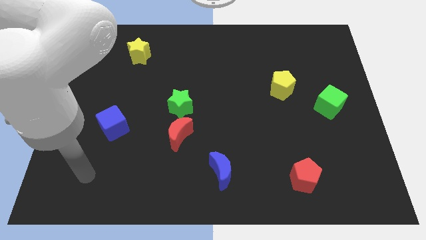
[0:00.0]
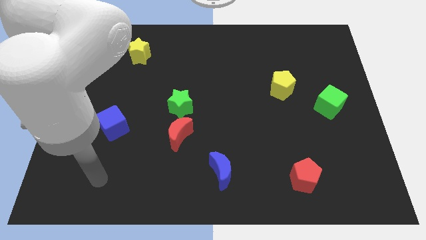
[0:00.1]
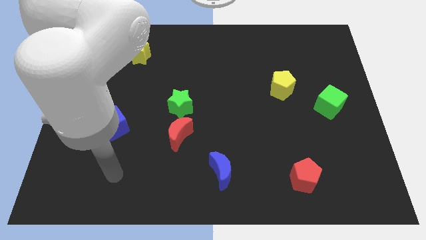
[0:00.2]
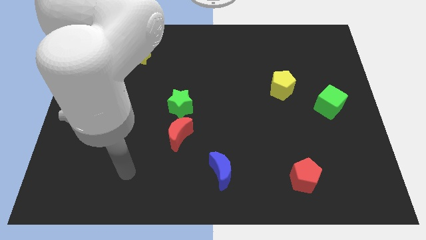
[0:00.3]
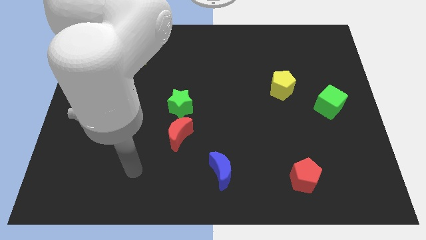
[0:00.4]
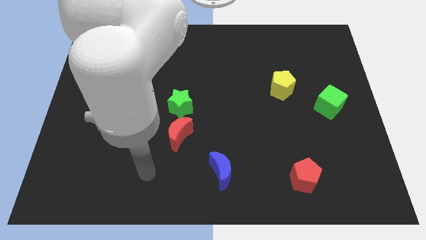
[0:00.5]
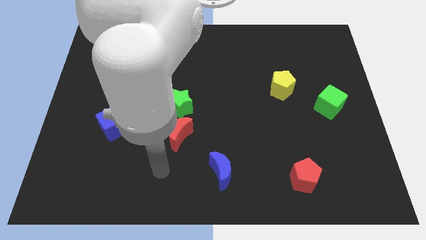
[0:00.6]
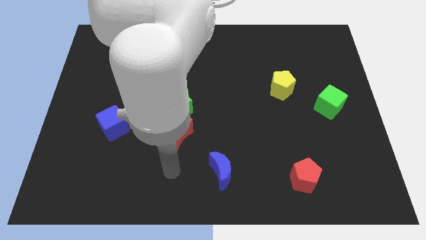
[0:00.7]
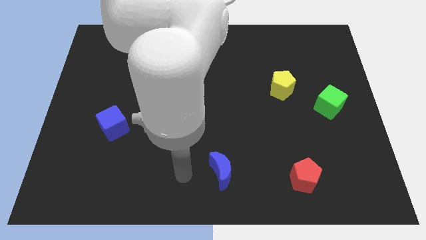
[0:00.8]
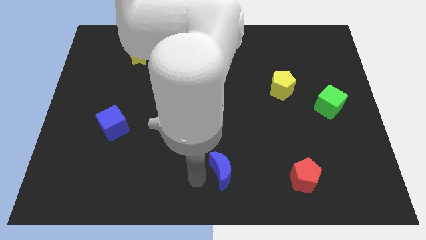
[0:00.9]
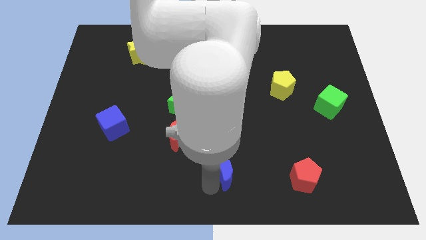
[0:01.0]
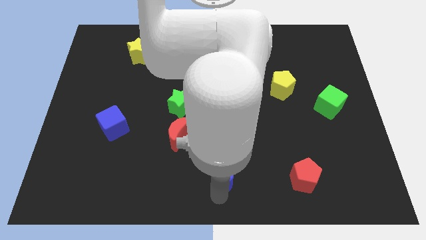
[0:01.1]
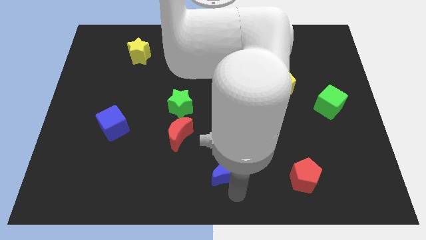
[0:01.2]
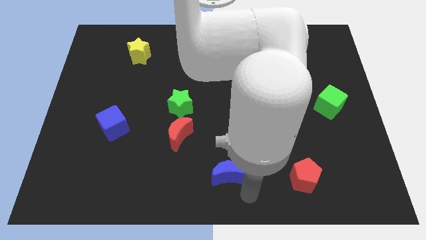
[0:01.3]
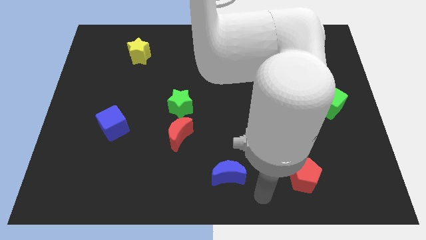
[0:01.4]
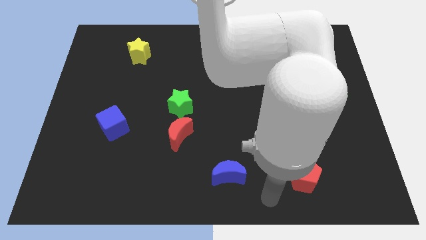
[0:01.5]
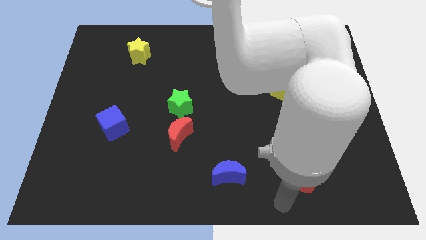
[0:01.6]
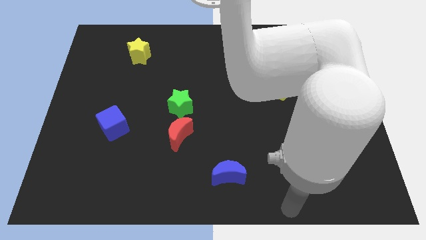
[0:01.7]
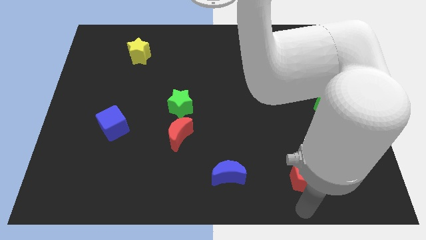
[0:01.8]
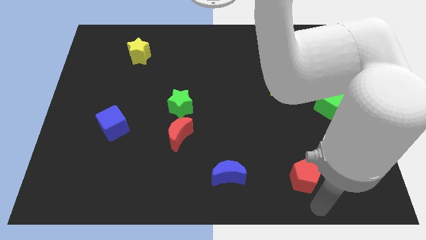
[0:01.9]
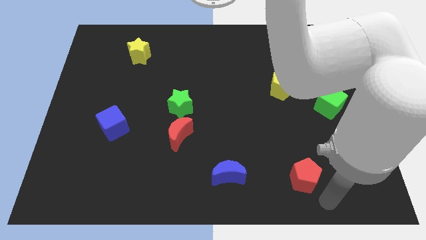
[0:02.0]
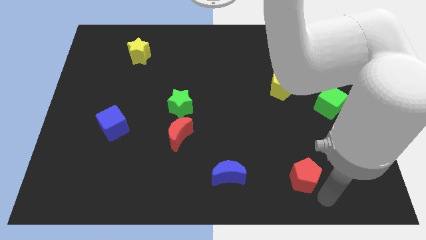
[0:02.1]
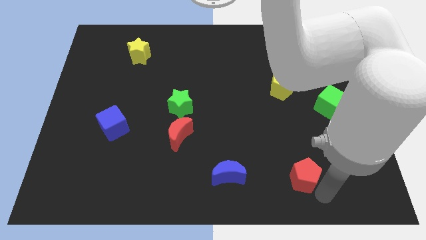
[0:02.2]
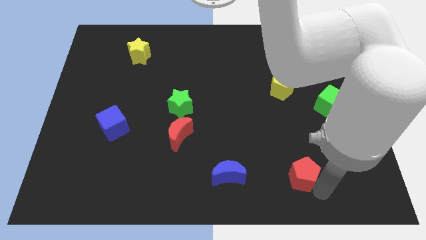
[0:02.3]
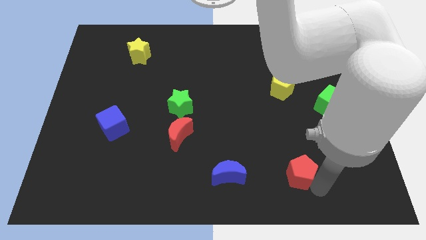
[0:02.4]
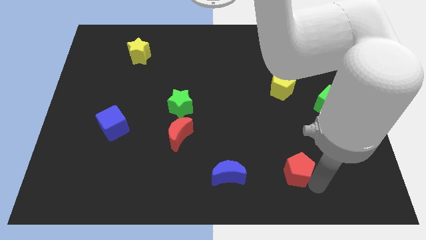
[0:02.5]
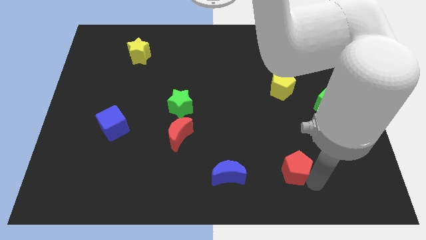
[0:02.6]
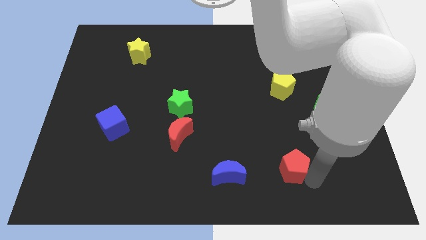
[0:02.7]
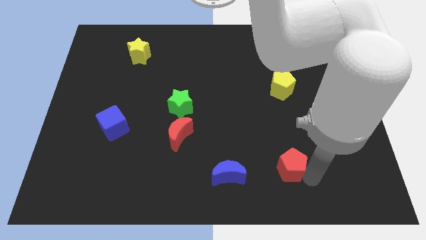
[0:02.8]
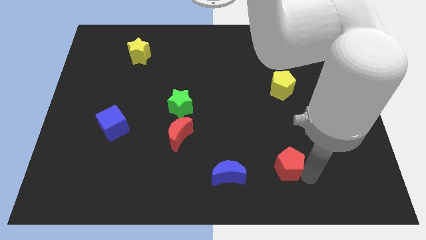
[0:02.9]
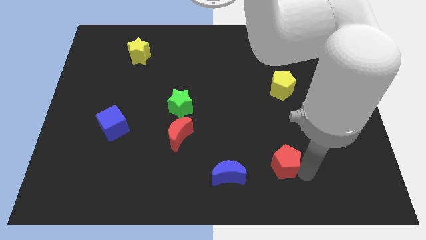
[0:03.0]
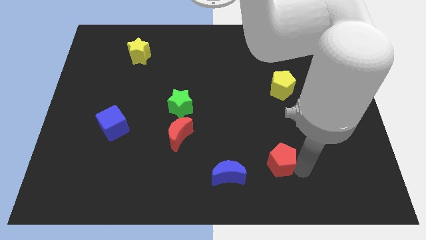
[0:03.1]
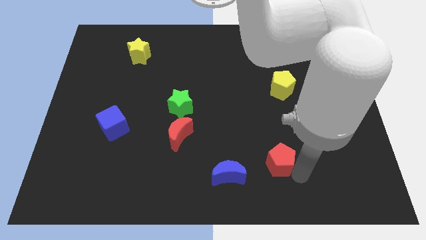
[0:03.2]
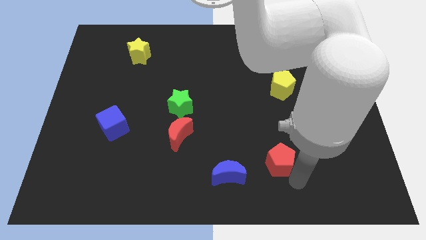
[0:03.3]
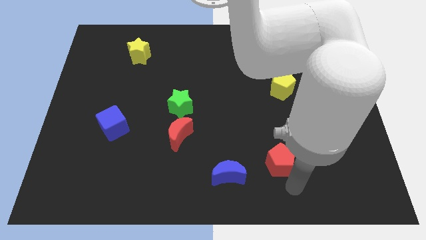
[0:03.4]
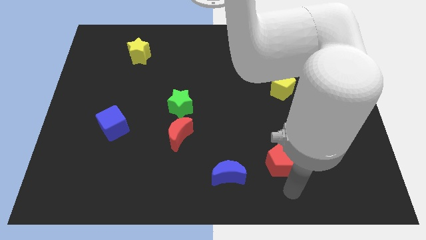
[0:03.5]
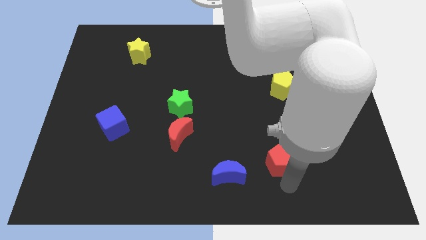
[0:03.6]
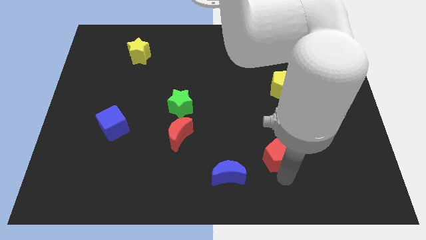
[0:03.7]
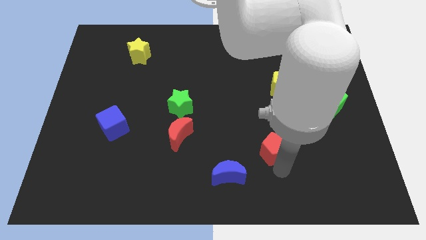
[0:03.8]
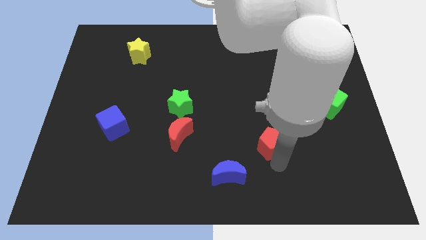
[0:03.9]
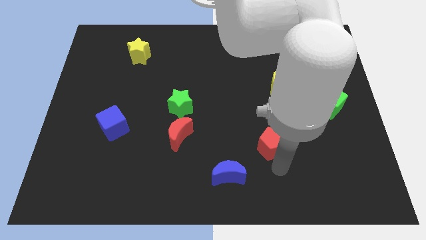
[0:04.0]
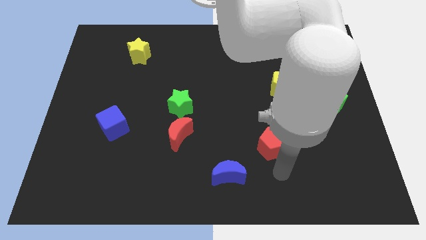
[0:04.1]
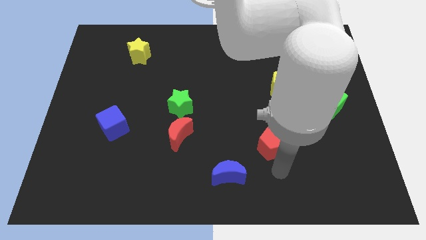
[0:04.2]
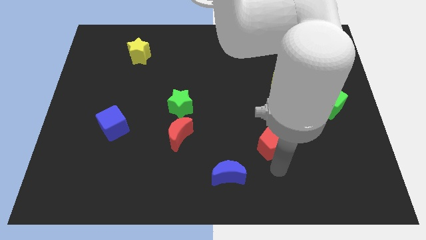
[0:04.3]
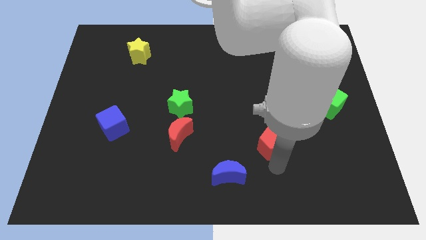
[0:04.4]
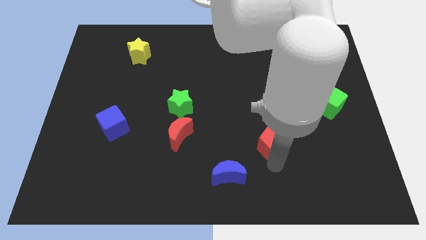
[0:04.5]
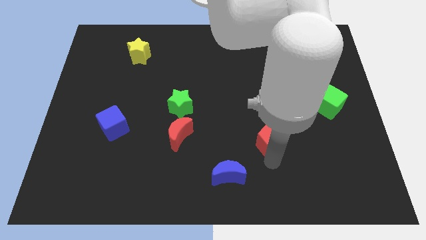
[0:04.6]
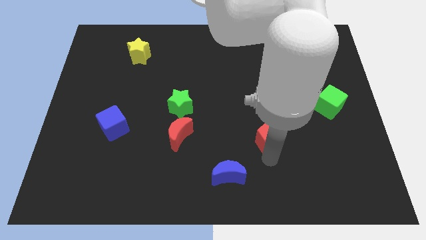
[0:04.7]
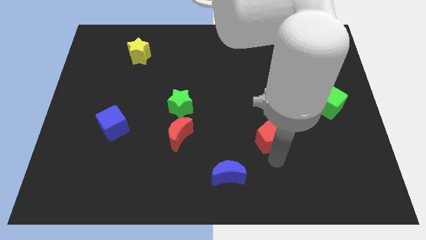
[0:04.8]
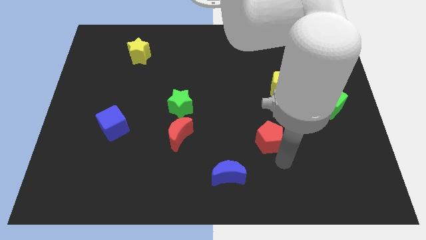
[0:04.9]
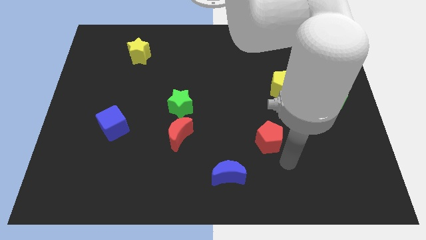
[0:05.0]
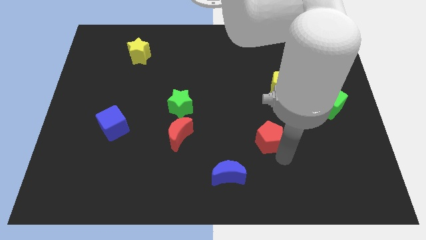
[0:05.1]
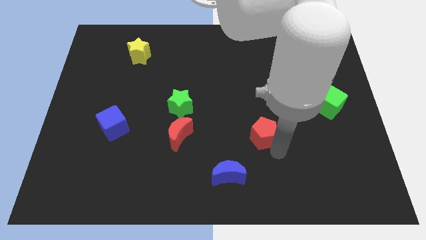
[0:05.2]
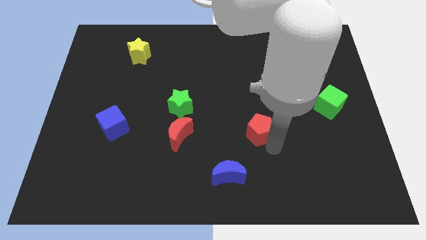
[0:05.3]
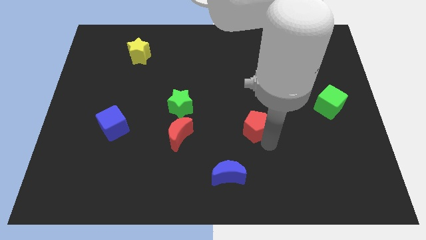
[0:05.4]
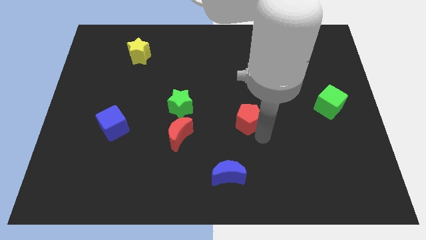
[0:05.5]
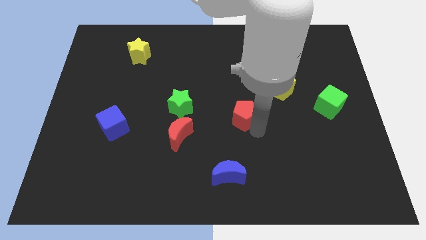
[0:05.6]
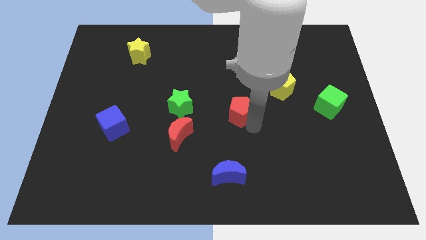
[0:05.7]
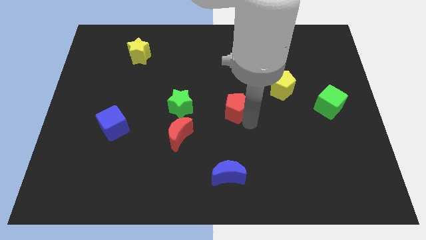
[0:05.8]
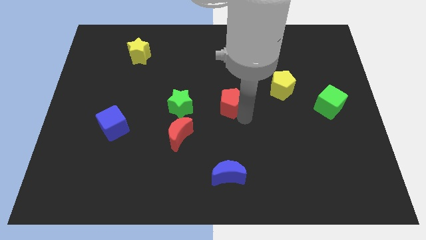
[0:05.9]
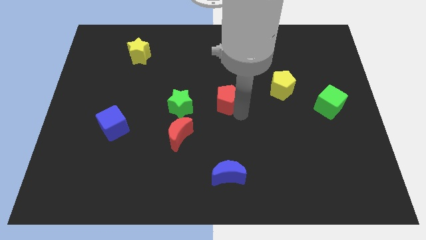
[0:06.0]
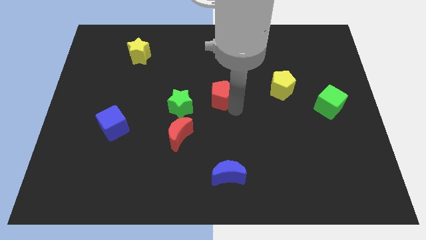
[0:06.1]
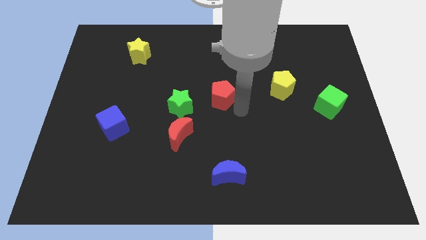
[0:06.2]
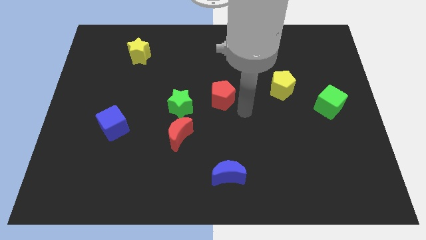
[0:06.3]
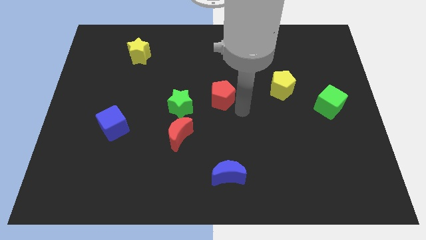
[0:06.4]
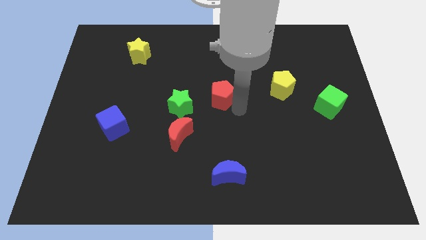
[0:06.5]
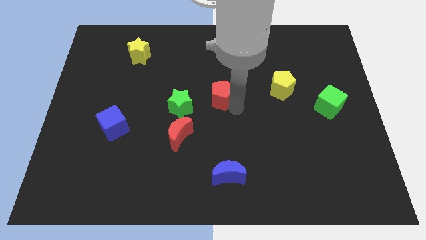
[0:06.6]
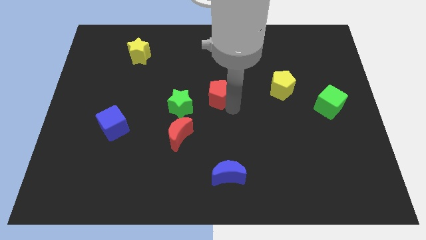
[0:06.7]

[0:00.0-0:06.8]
put the red pentagon to the top right side of the green star

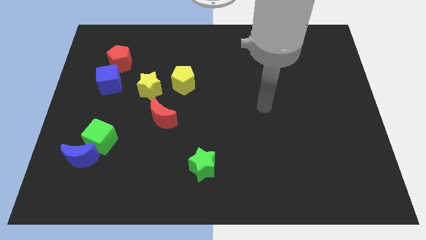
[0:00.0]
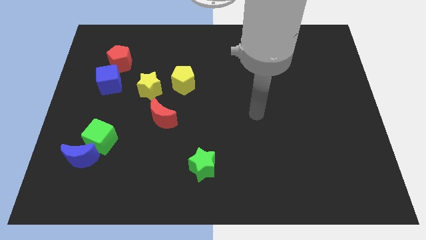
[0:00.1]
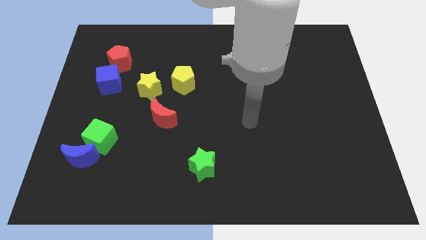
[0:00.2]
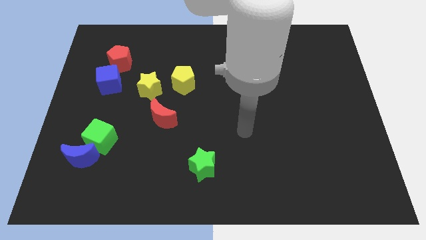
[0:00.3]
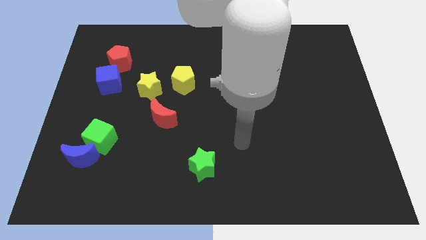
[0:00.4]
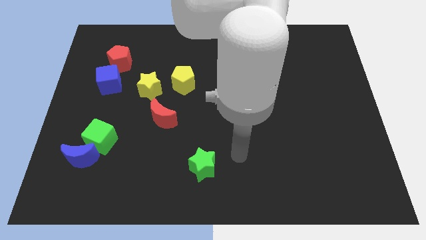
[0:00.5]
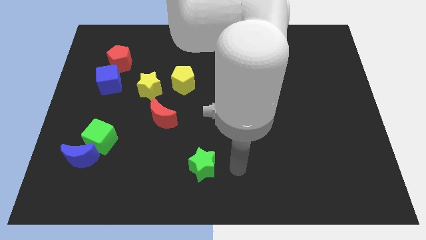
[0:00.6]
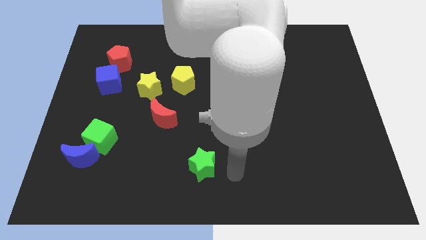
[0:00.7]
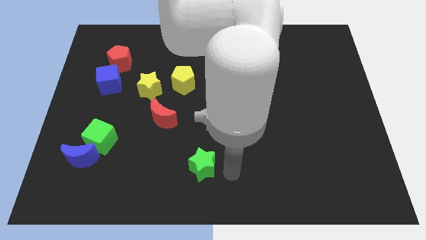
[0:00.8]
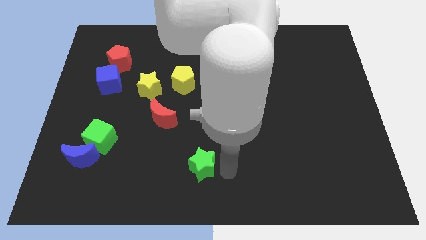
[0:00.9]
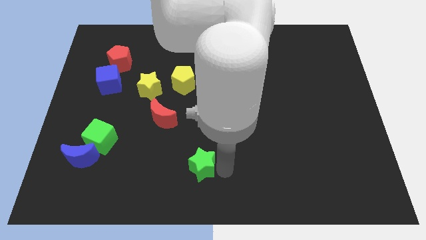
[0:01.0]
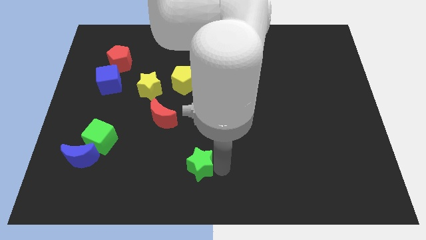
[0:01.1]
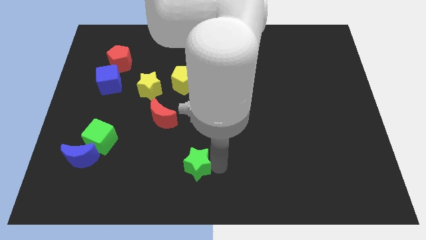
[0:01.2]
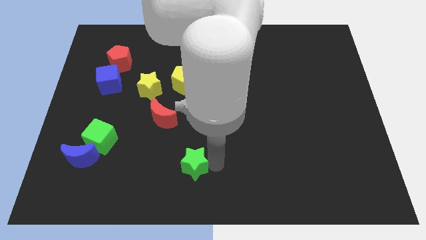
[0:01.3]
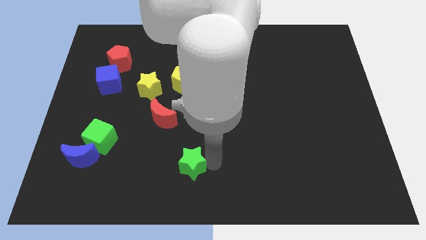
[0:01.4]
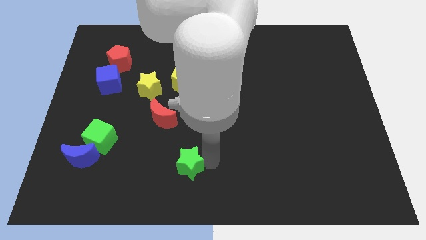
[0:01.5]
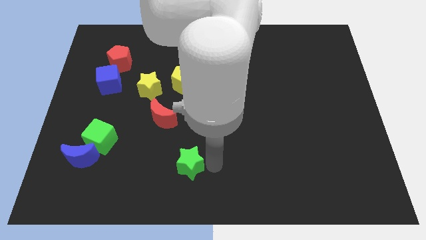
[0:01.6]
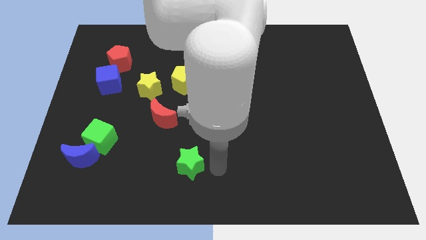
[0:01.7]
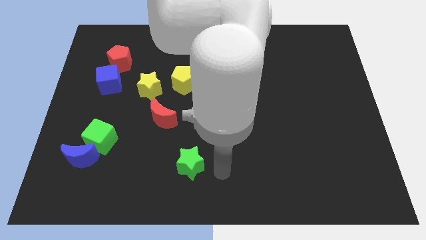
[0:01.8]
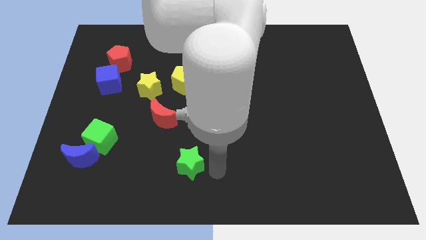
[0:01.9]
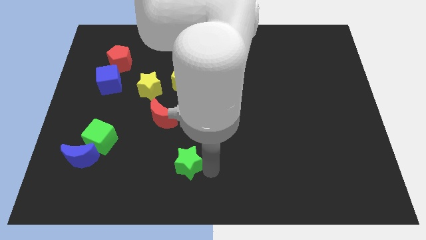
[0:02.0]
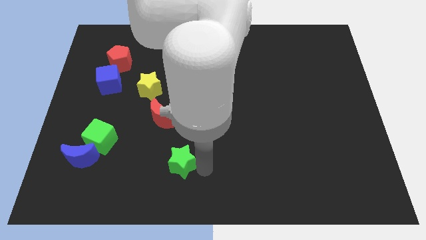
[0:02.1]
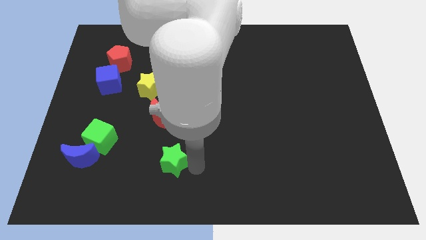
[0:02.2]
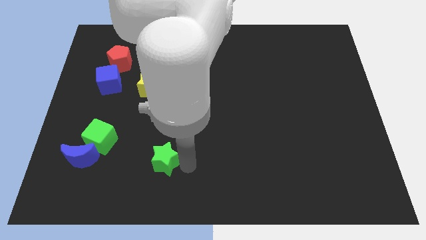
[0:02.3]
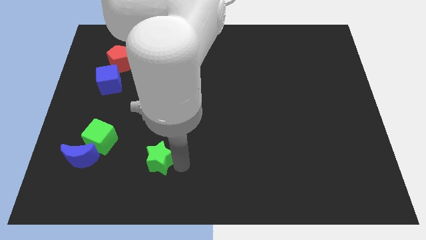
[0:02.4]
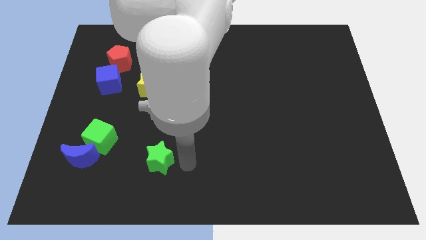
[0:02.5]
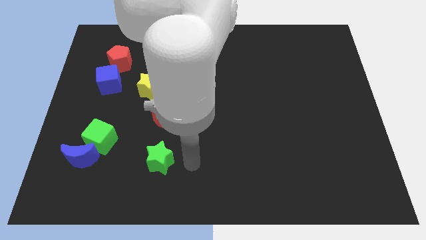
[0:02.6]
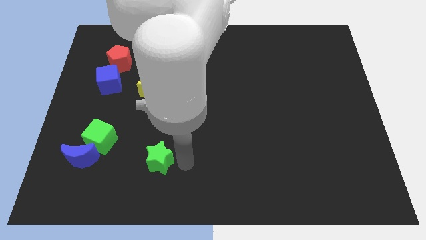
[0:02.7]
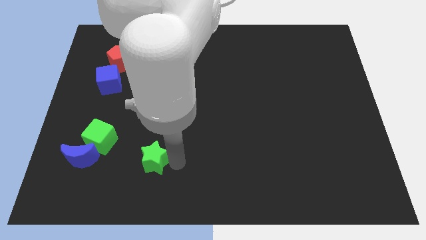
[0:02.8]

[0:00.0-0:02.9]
move the green star just right of the blue moon
